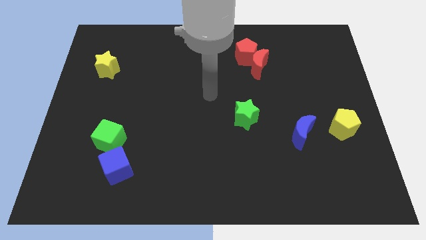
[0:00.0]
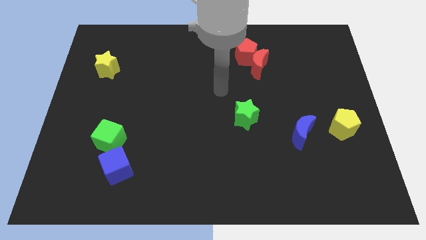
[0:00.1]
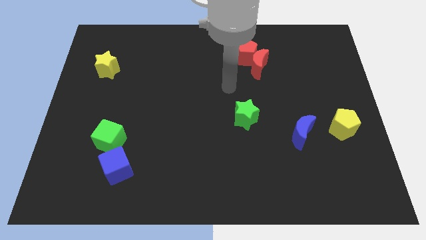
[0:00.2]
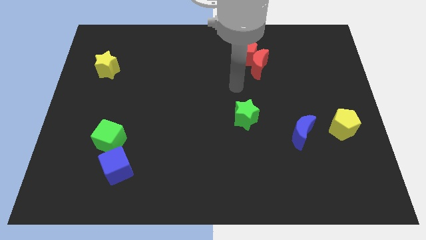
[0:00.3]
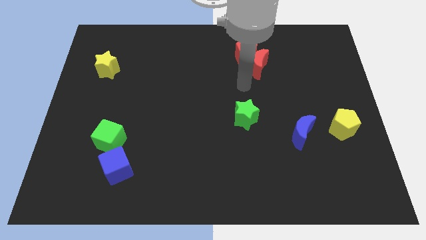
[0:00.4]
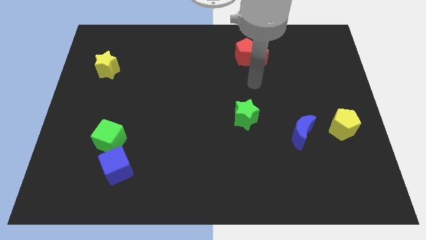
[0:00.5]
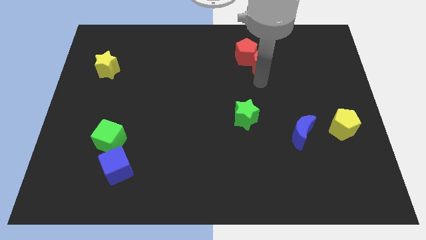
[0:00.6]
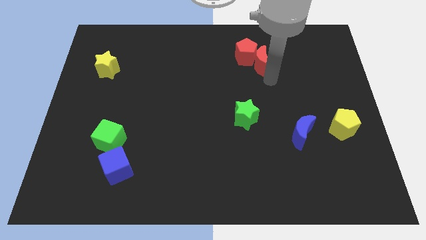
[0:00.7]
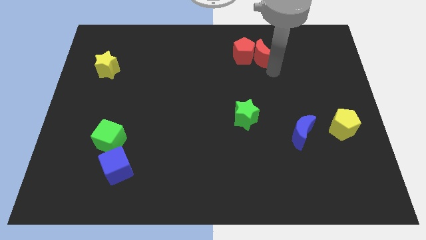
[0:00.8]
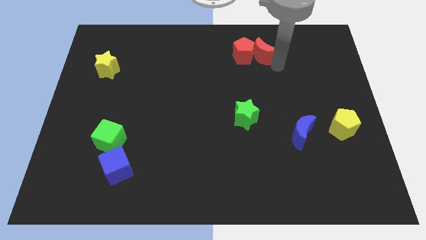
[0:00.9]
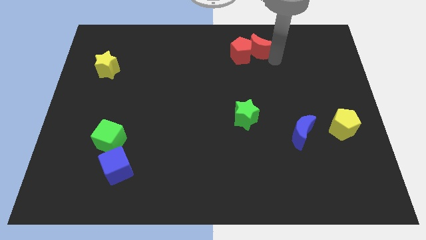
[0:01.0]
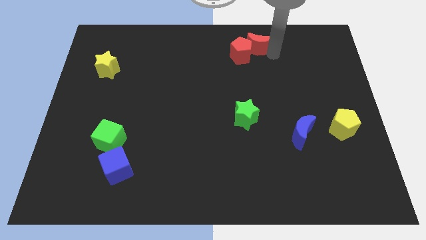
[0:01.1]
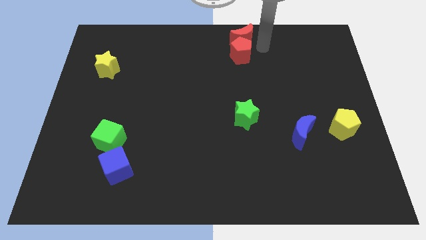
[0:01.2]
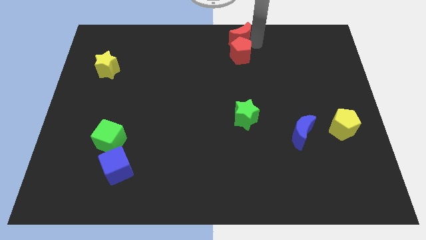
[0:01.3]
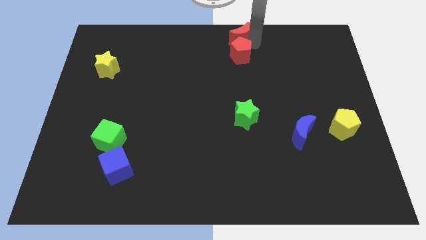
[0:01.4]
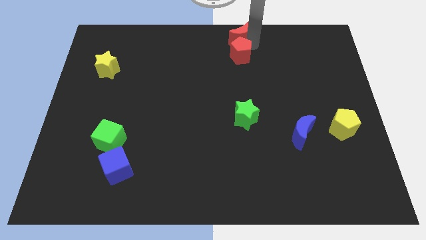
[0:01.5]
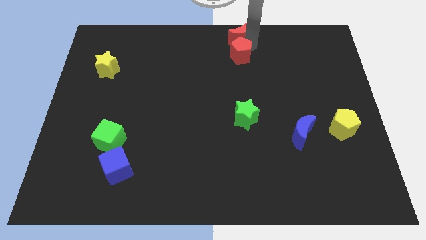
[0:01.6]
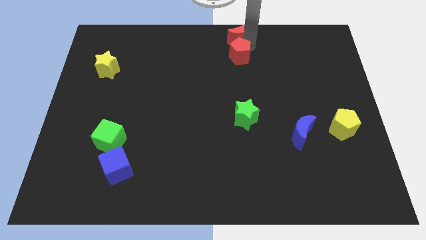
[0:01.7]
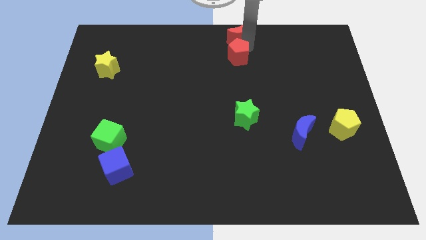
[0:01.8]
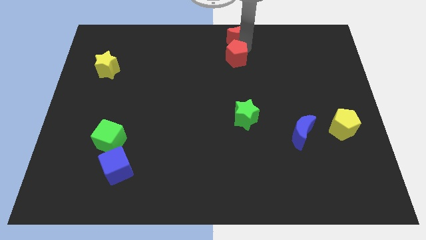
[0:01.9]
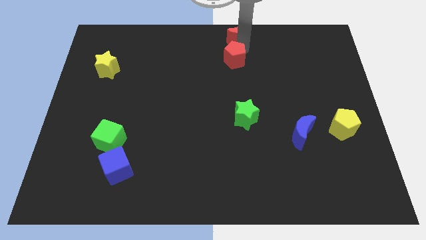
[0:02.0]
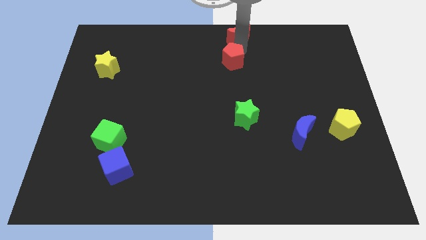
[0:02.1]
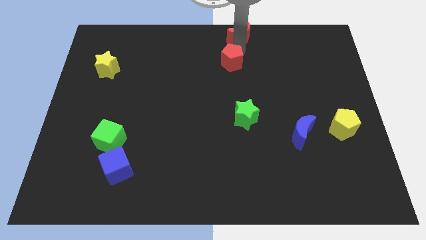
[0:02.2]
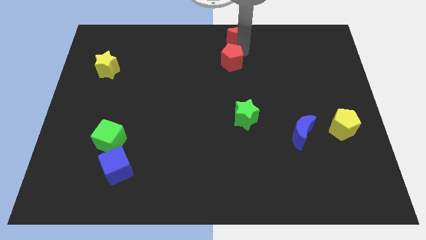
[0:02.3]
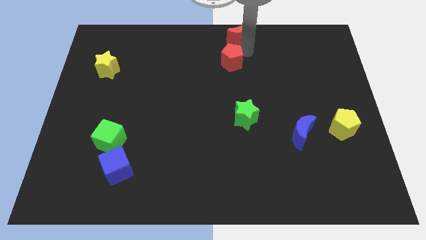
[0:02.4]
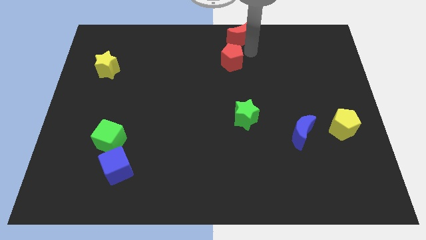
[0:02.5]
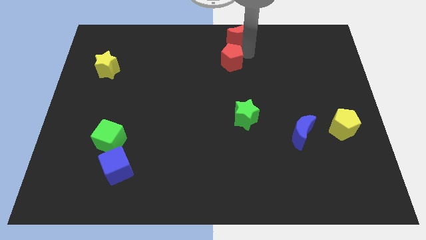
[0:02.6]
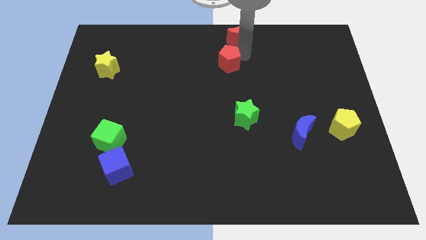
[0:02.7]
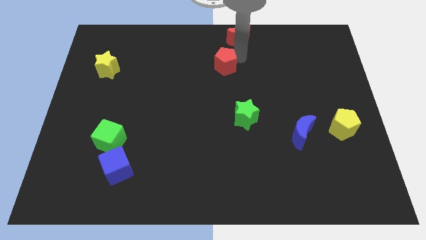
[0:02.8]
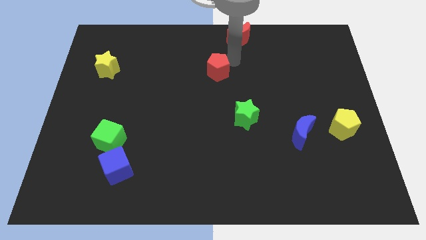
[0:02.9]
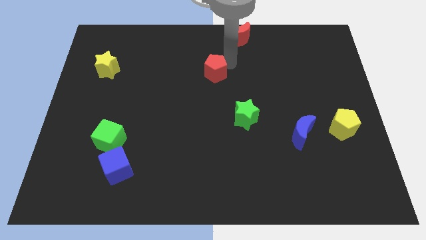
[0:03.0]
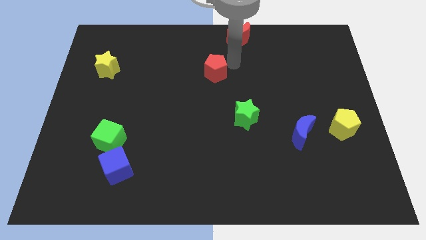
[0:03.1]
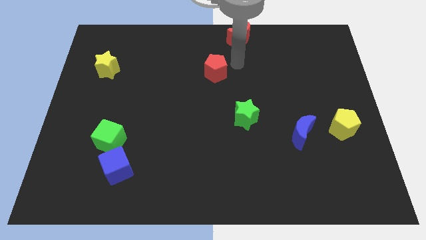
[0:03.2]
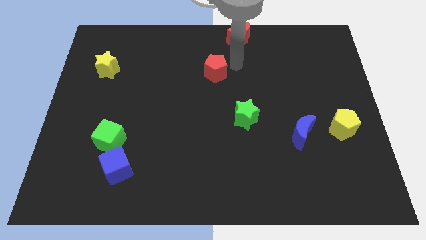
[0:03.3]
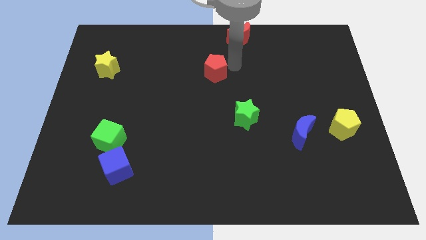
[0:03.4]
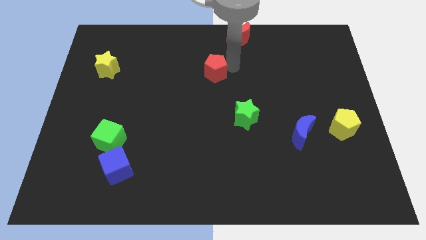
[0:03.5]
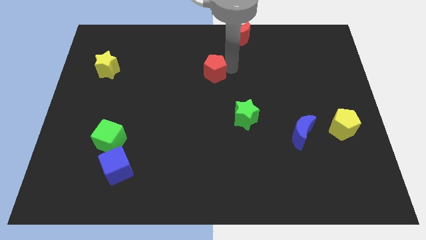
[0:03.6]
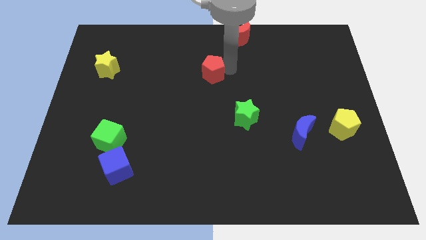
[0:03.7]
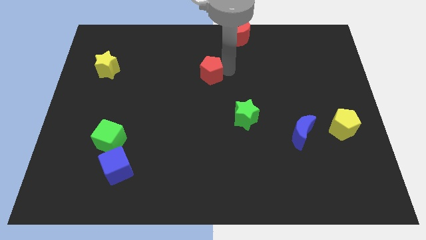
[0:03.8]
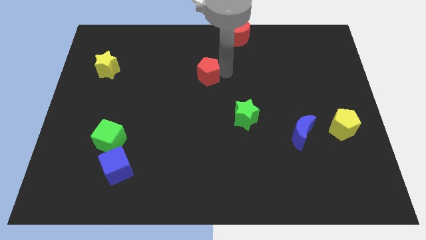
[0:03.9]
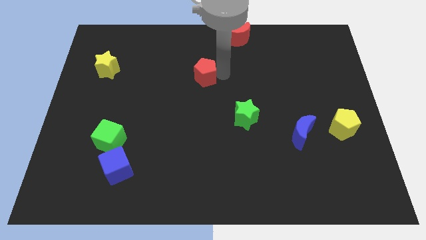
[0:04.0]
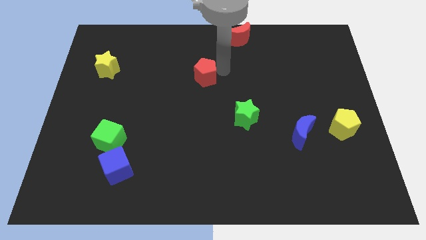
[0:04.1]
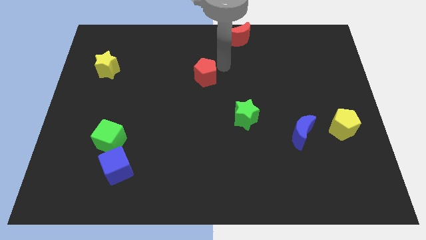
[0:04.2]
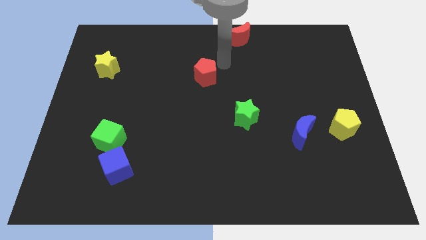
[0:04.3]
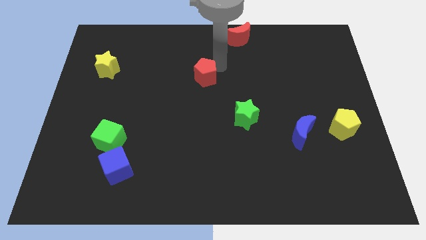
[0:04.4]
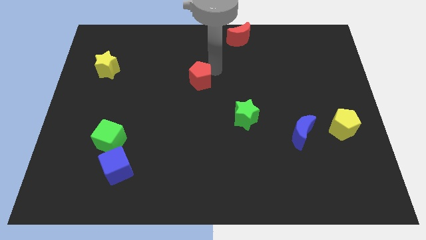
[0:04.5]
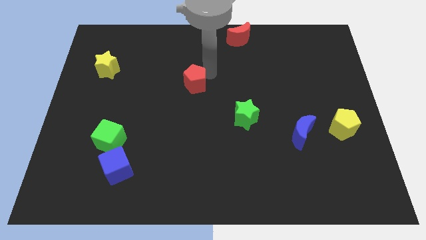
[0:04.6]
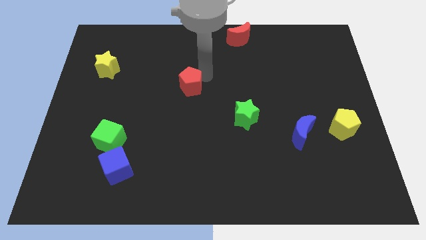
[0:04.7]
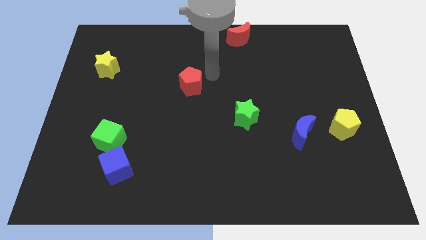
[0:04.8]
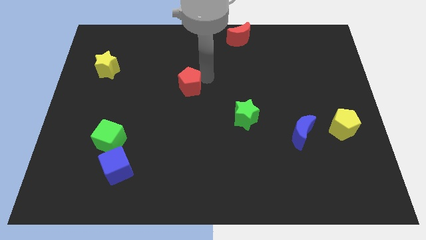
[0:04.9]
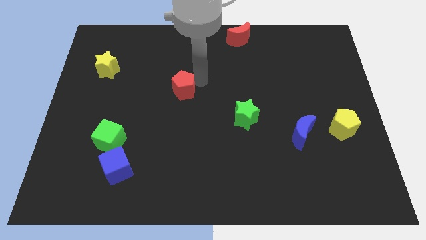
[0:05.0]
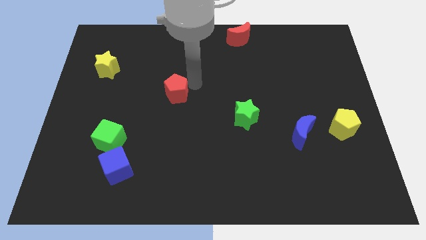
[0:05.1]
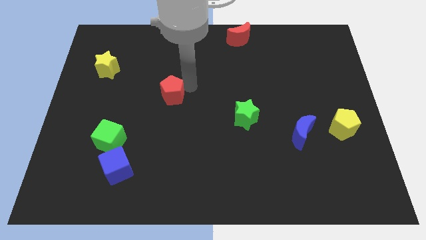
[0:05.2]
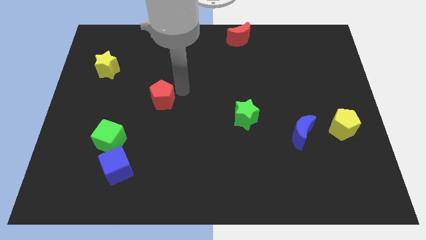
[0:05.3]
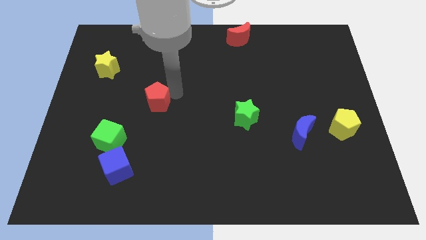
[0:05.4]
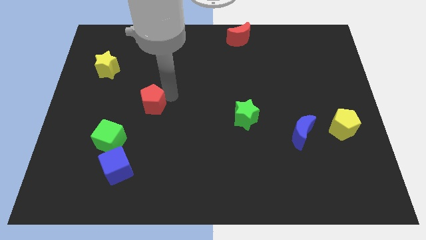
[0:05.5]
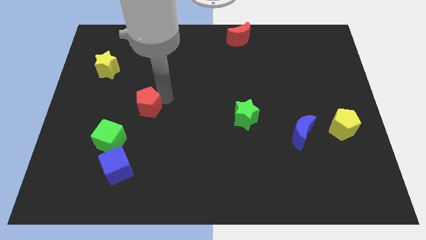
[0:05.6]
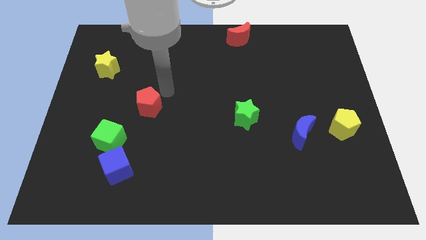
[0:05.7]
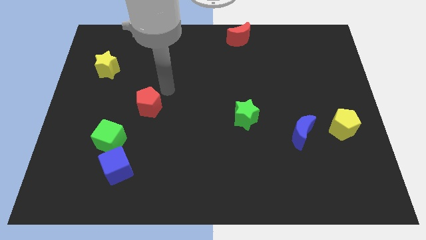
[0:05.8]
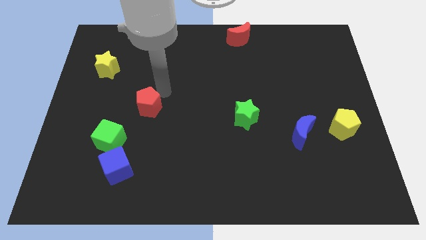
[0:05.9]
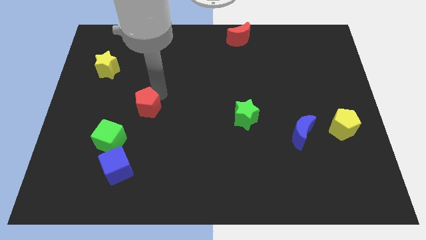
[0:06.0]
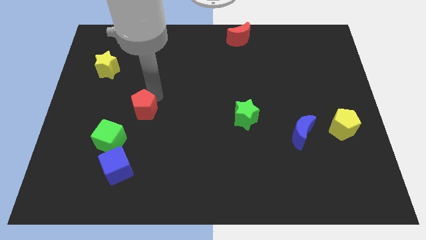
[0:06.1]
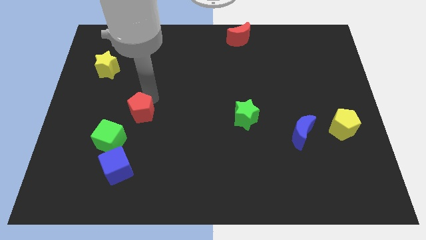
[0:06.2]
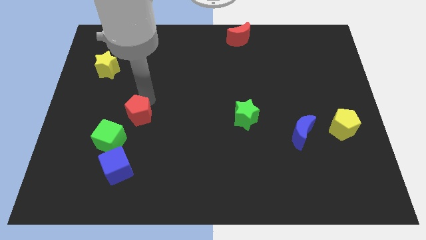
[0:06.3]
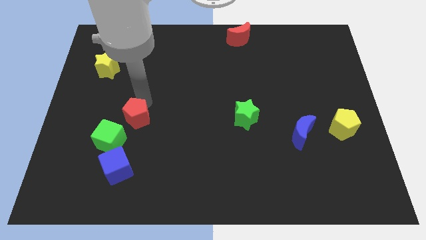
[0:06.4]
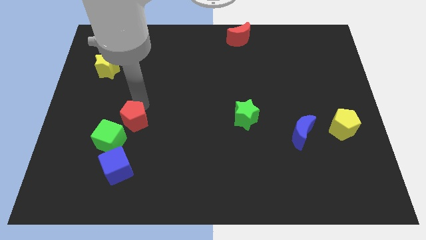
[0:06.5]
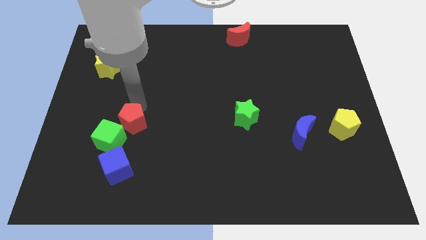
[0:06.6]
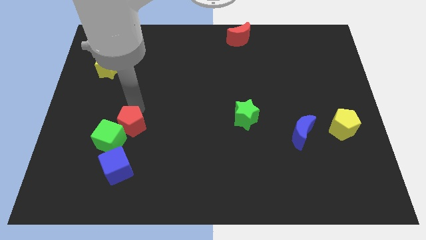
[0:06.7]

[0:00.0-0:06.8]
slide the red pentagon next to the green cube
